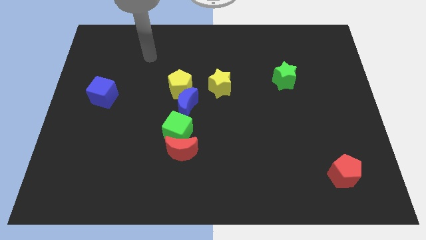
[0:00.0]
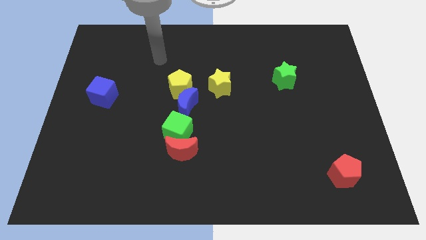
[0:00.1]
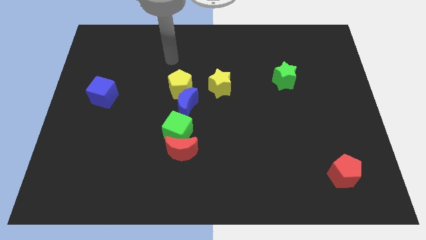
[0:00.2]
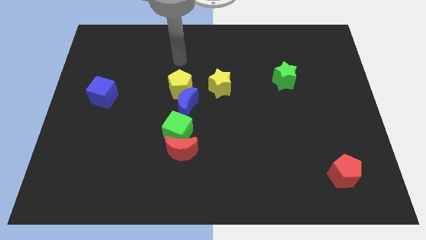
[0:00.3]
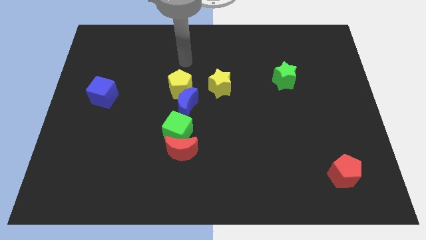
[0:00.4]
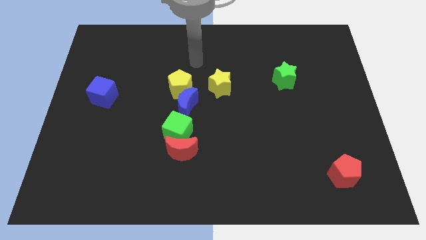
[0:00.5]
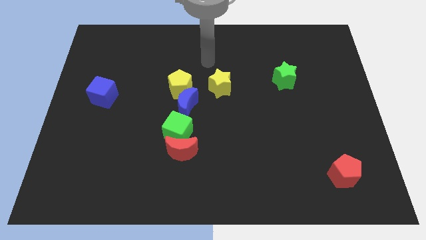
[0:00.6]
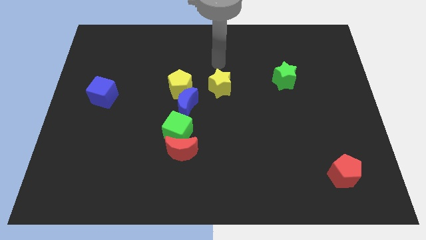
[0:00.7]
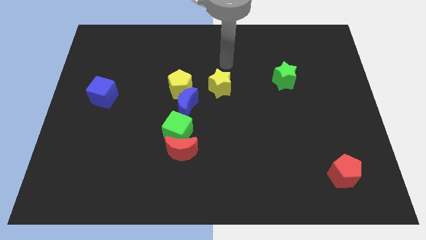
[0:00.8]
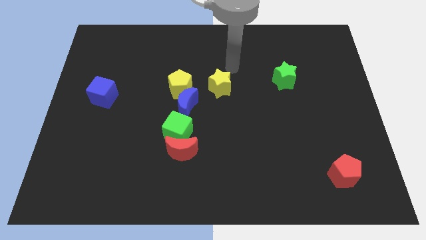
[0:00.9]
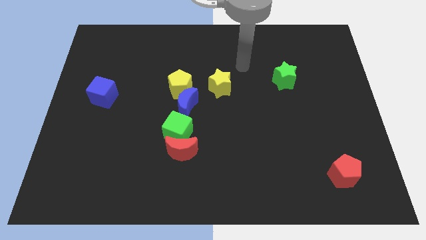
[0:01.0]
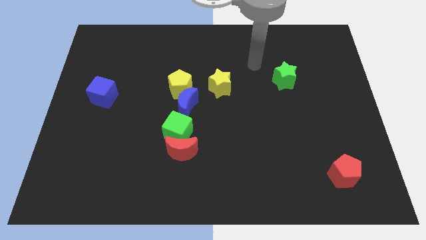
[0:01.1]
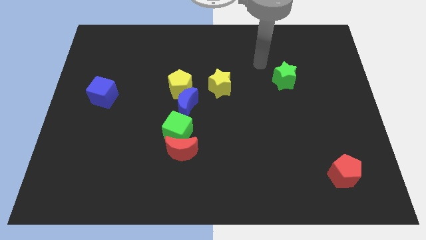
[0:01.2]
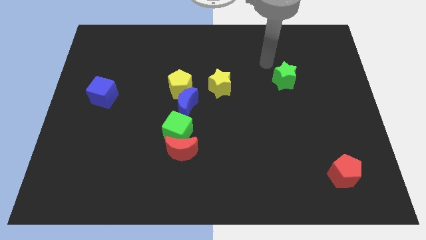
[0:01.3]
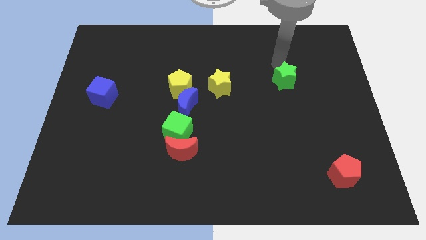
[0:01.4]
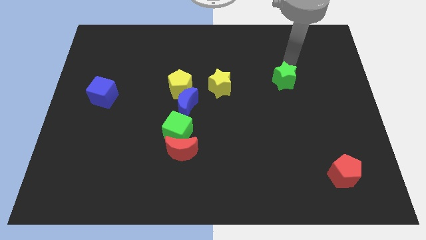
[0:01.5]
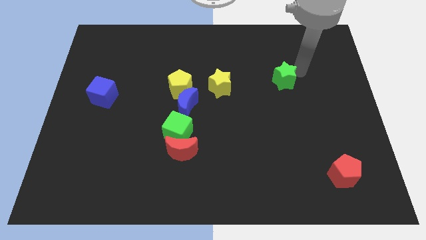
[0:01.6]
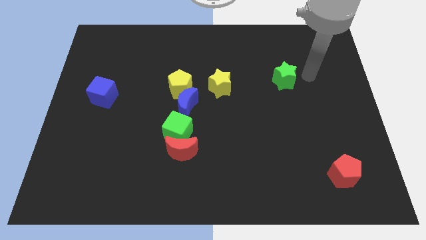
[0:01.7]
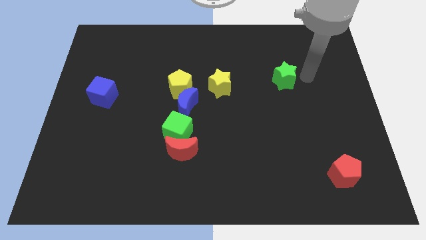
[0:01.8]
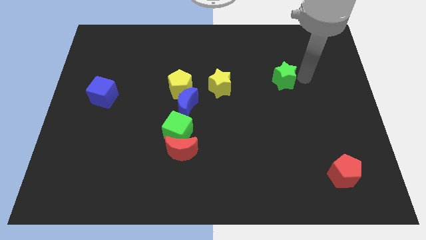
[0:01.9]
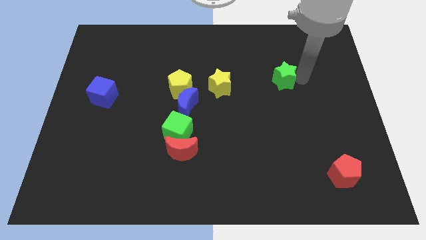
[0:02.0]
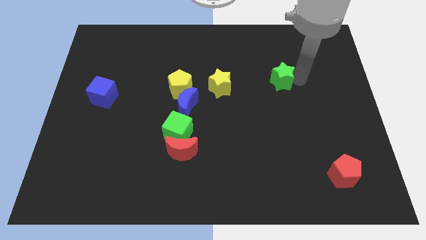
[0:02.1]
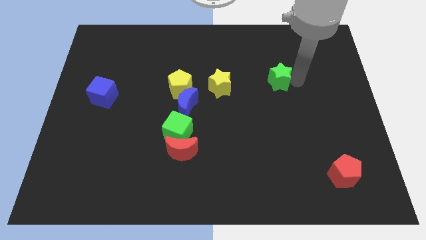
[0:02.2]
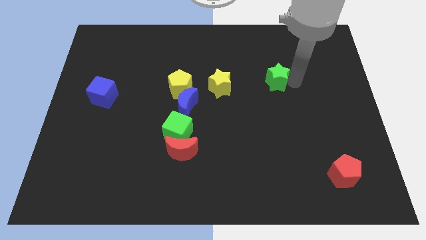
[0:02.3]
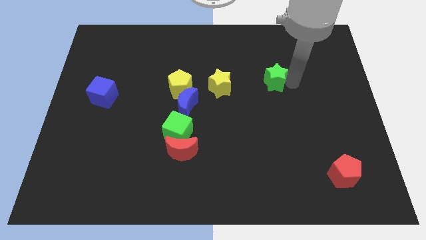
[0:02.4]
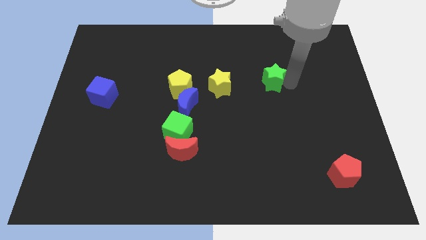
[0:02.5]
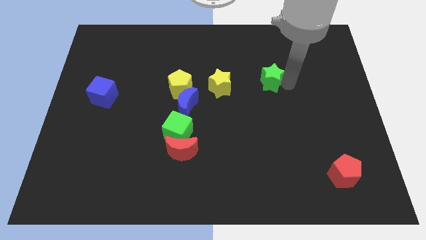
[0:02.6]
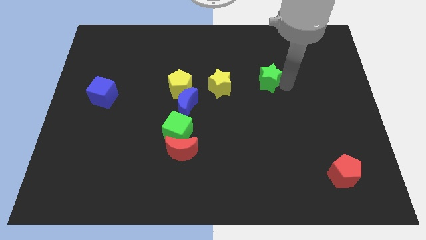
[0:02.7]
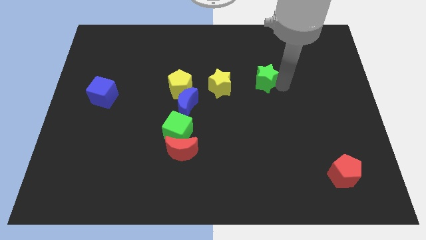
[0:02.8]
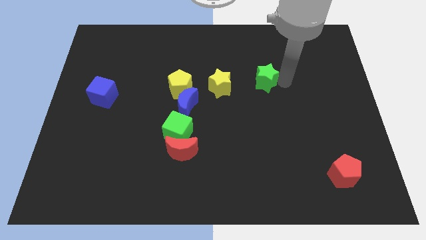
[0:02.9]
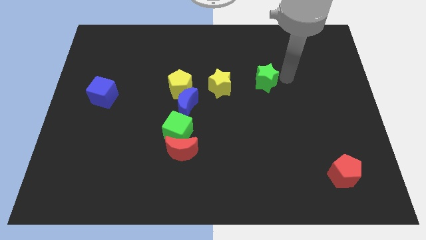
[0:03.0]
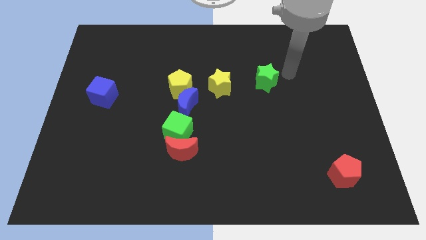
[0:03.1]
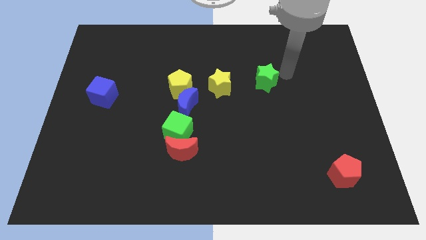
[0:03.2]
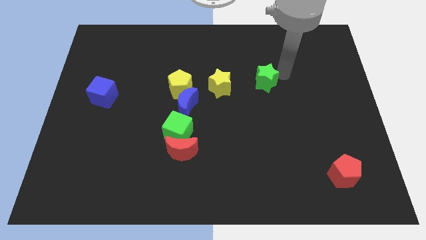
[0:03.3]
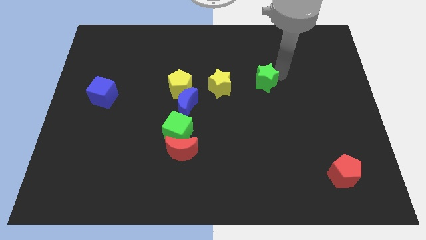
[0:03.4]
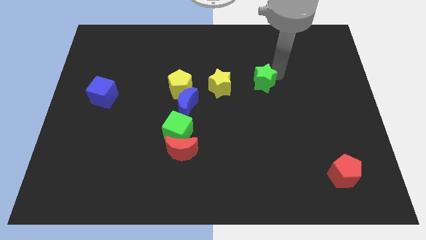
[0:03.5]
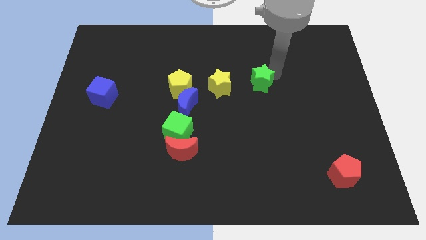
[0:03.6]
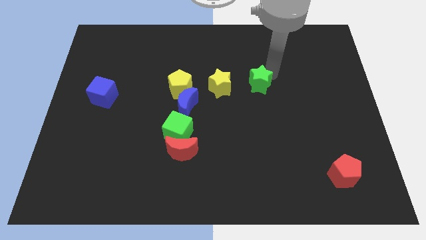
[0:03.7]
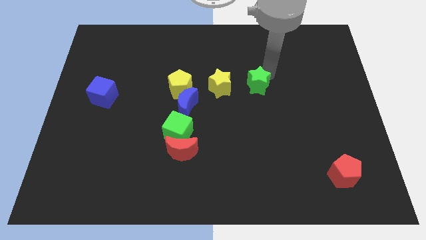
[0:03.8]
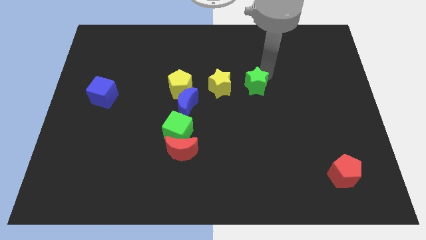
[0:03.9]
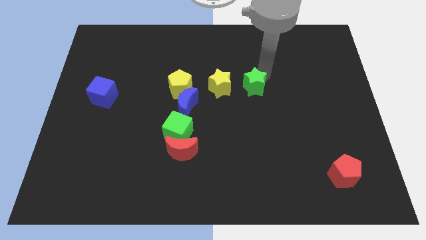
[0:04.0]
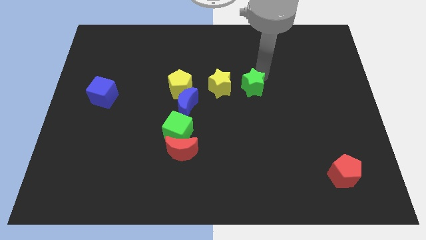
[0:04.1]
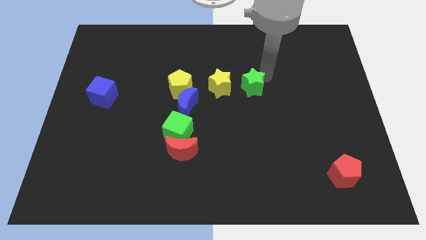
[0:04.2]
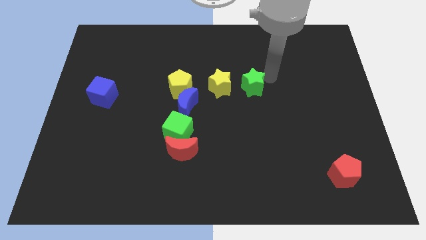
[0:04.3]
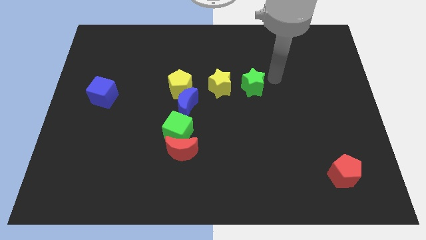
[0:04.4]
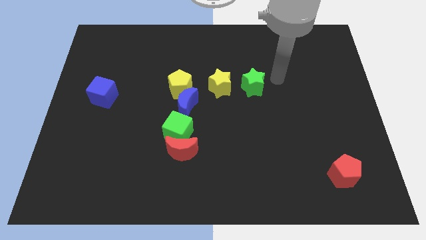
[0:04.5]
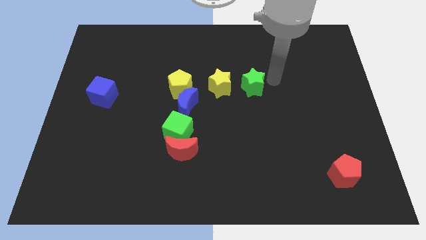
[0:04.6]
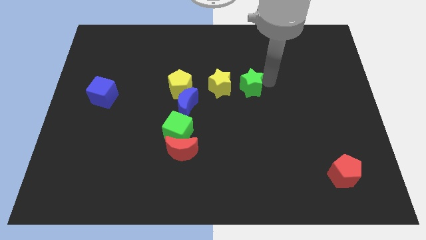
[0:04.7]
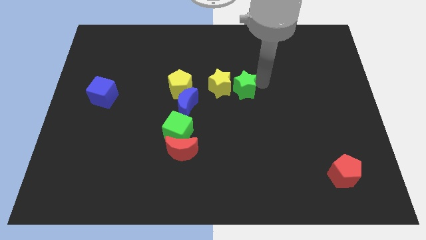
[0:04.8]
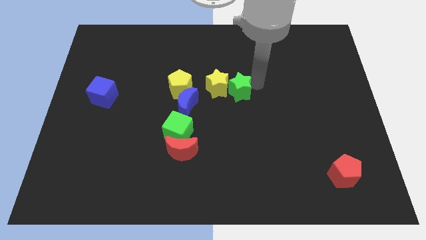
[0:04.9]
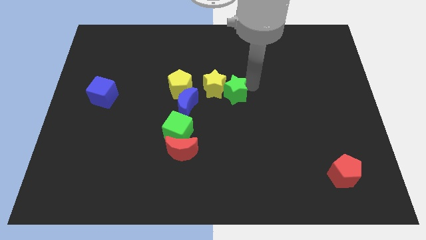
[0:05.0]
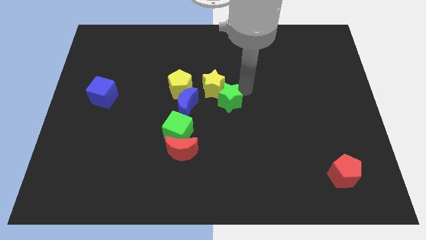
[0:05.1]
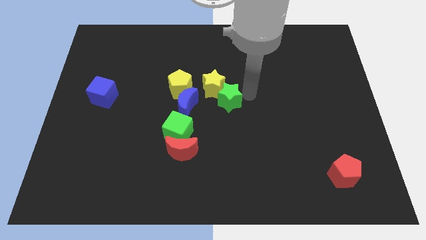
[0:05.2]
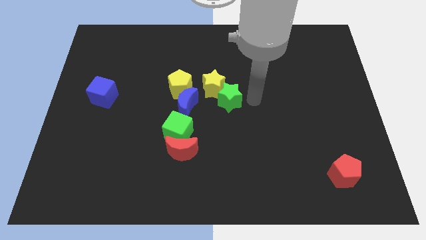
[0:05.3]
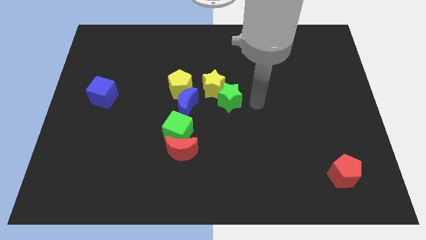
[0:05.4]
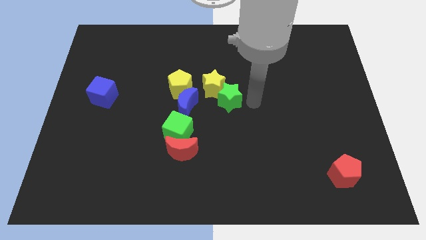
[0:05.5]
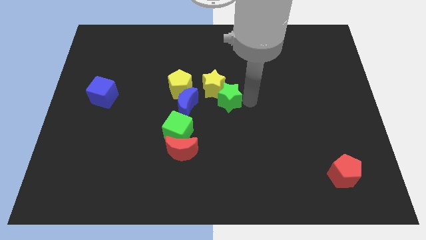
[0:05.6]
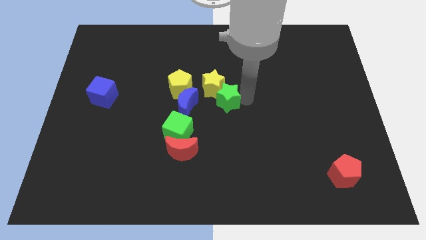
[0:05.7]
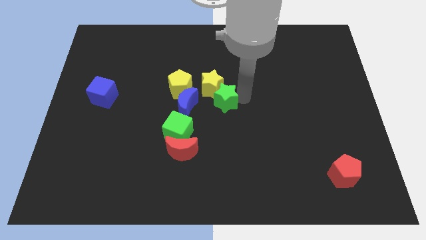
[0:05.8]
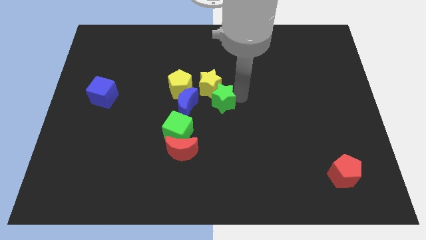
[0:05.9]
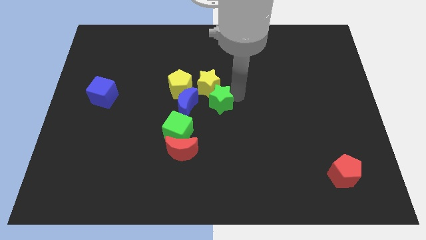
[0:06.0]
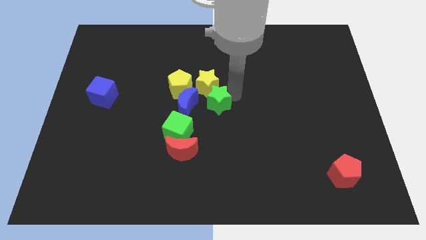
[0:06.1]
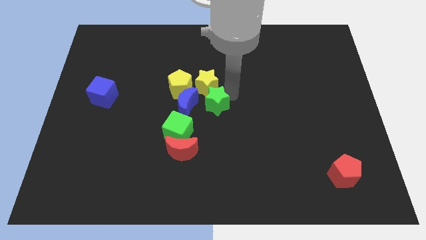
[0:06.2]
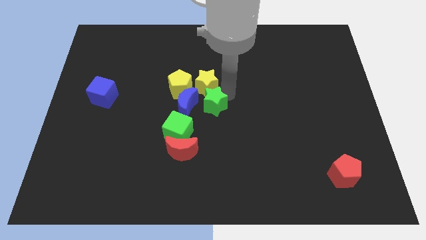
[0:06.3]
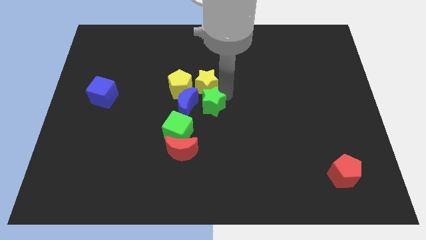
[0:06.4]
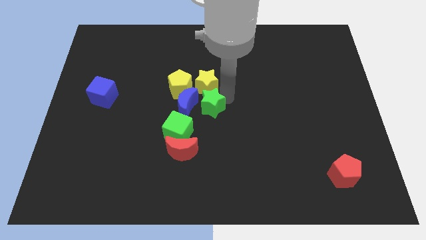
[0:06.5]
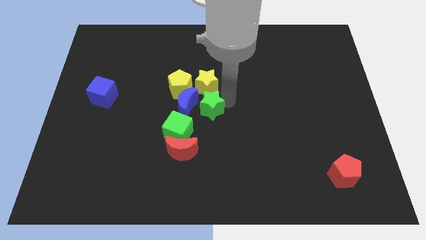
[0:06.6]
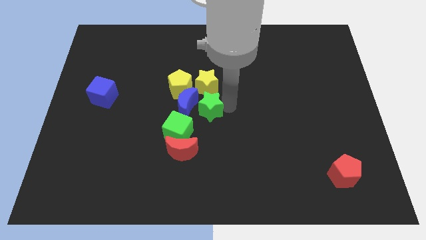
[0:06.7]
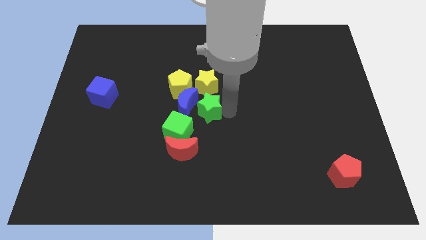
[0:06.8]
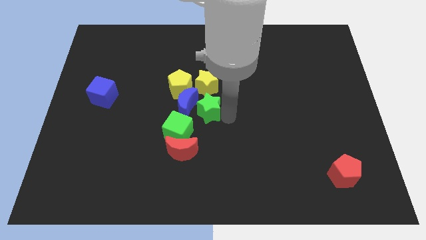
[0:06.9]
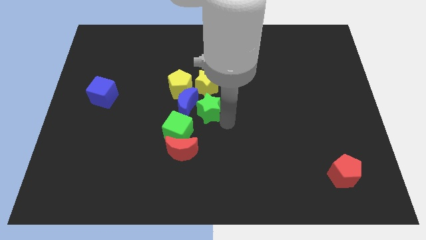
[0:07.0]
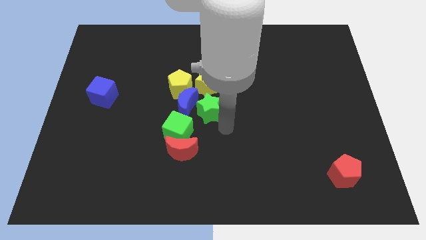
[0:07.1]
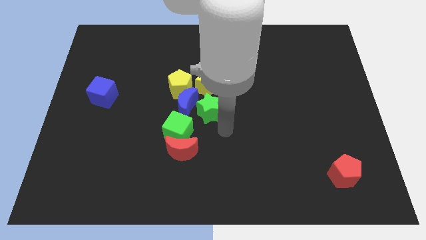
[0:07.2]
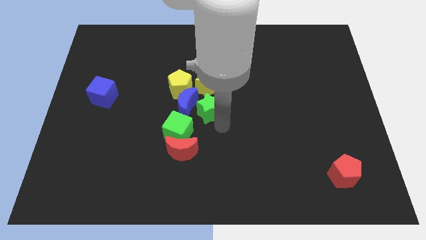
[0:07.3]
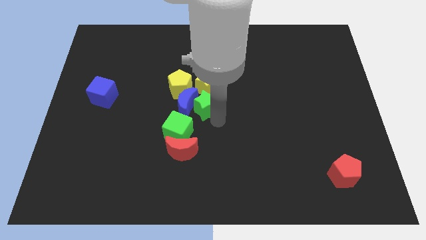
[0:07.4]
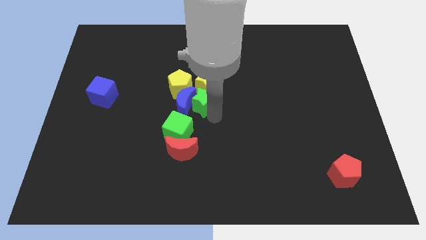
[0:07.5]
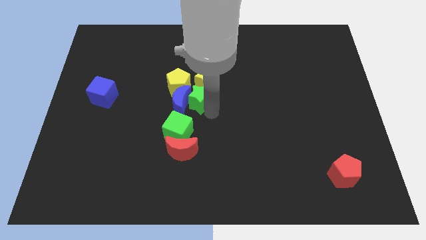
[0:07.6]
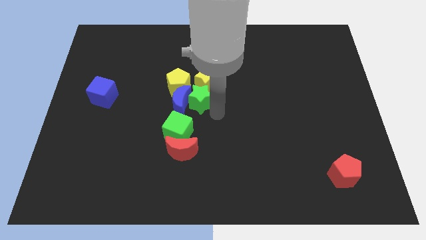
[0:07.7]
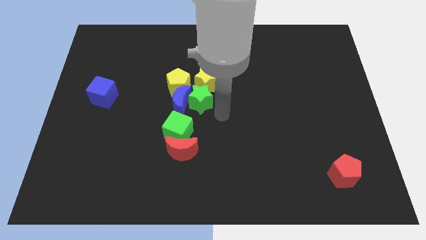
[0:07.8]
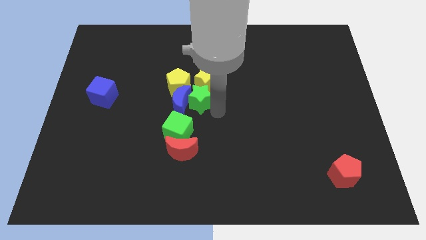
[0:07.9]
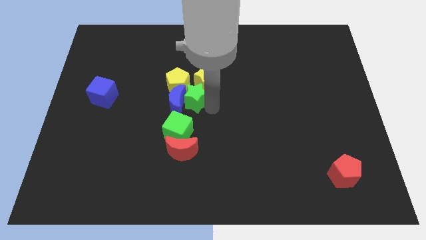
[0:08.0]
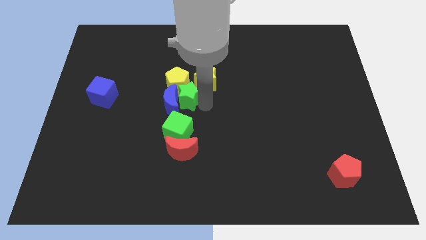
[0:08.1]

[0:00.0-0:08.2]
slide the green star to the yellow pentagon
